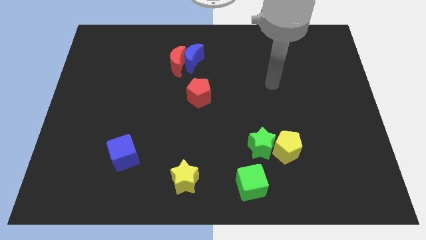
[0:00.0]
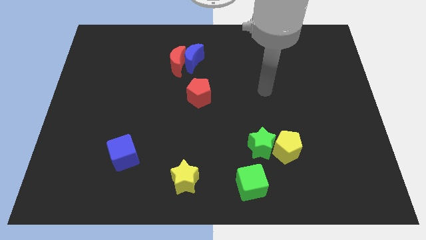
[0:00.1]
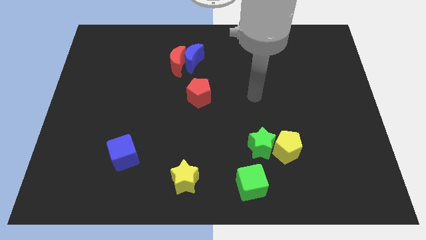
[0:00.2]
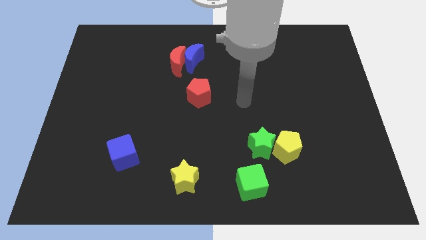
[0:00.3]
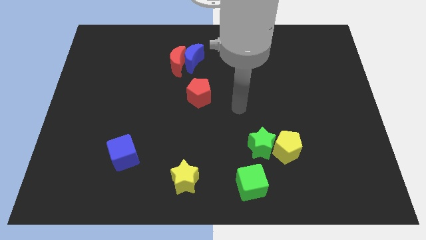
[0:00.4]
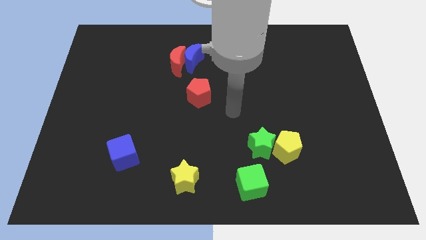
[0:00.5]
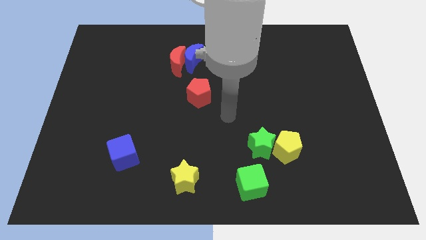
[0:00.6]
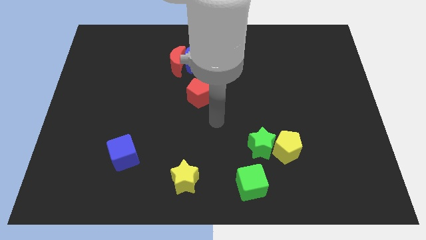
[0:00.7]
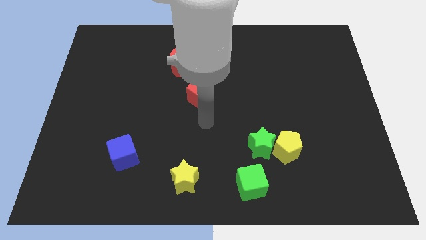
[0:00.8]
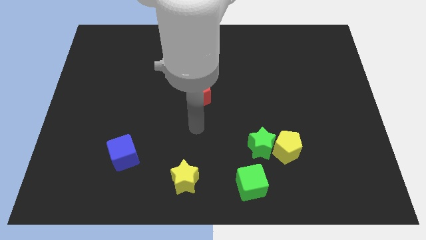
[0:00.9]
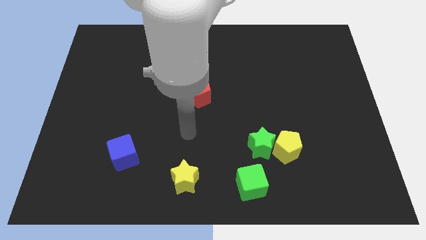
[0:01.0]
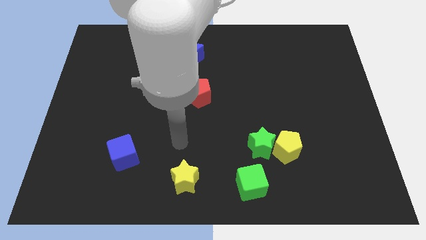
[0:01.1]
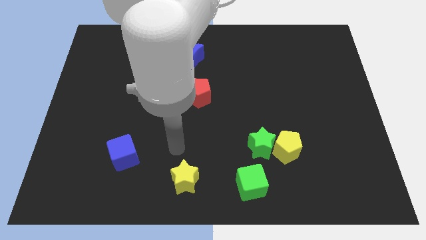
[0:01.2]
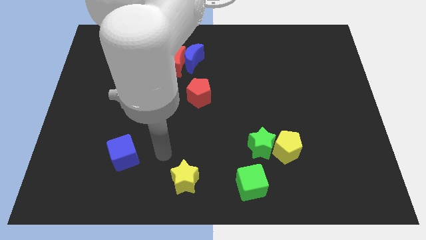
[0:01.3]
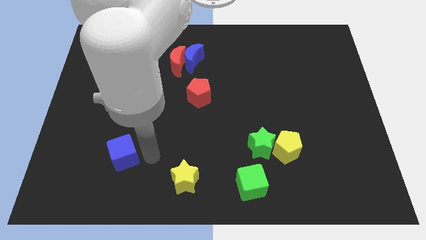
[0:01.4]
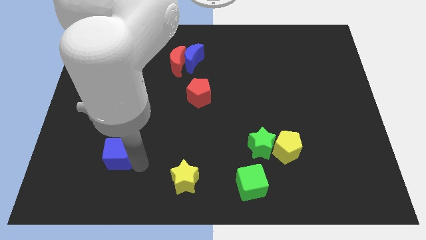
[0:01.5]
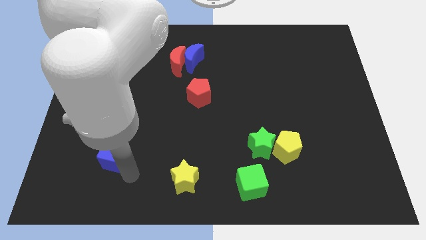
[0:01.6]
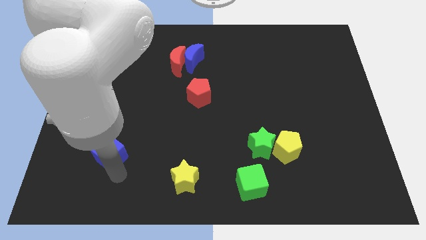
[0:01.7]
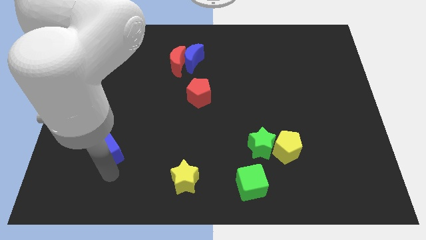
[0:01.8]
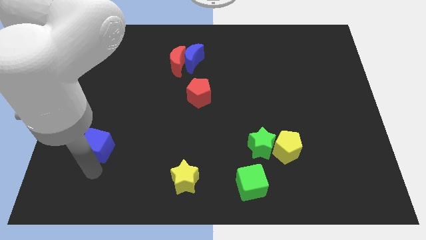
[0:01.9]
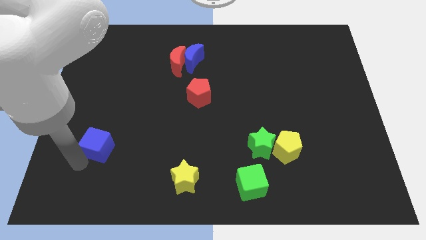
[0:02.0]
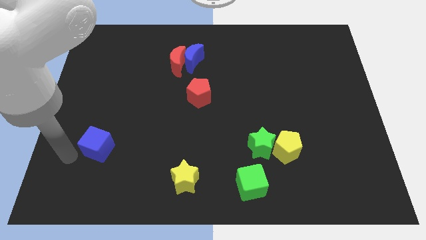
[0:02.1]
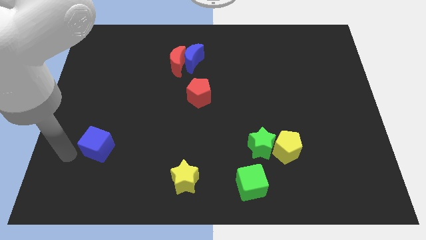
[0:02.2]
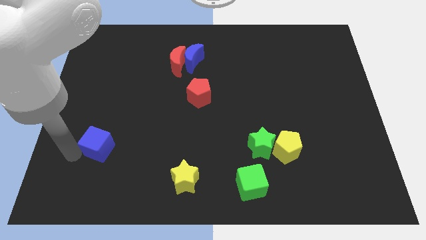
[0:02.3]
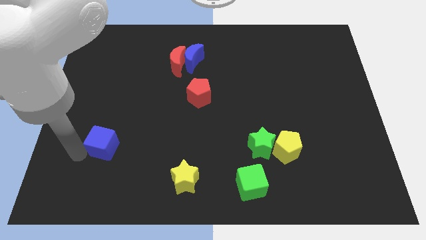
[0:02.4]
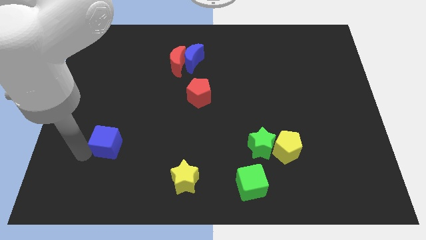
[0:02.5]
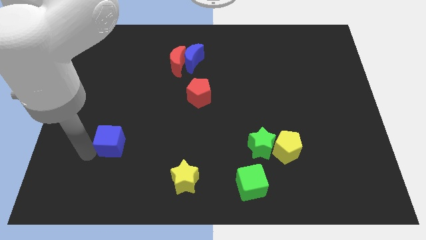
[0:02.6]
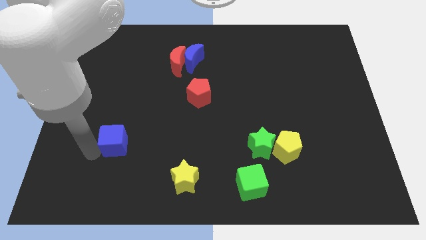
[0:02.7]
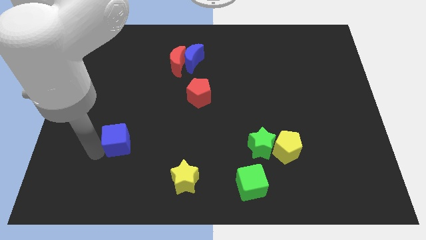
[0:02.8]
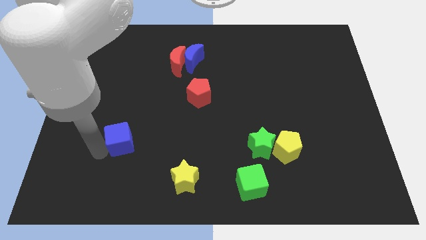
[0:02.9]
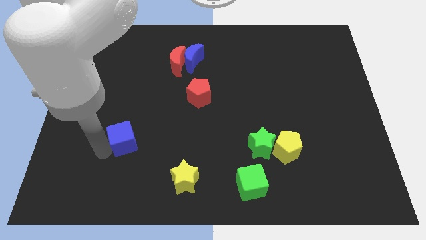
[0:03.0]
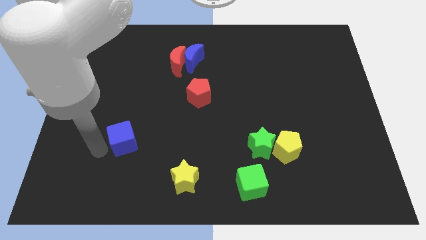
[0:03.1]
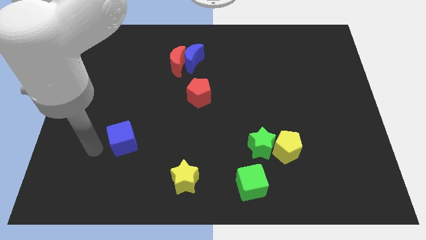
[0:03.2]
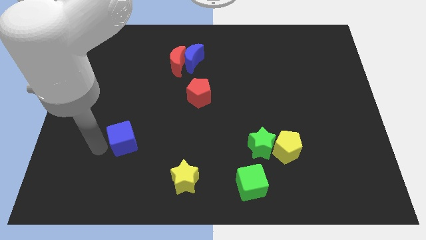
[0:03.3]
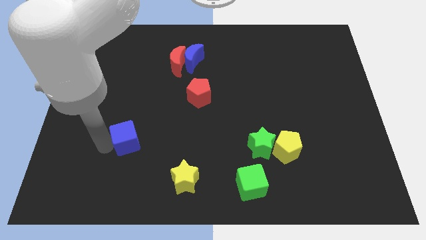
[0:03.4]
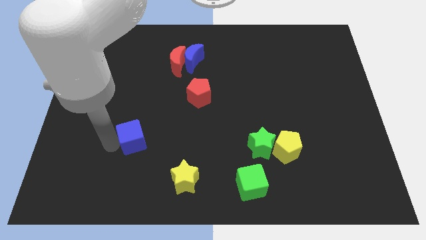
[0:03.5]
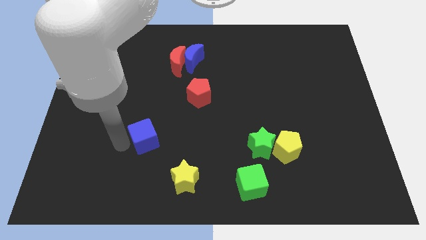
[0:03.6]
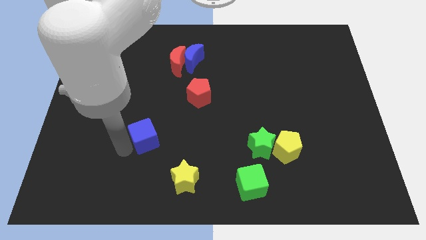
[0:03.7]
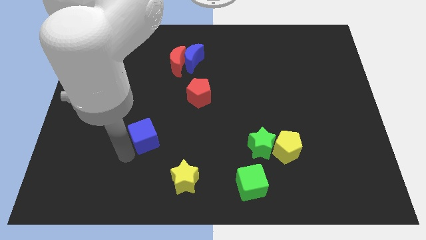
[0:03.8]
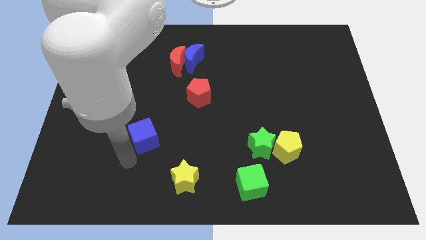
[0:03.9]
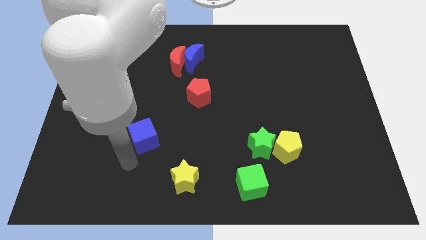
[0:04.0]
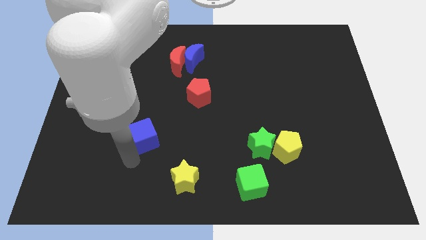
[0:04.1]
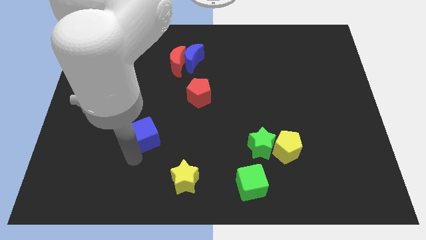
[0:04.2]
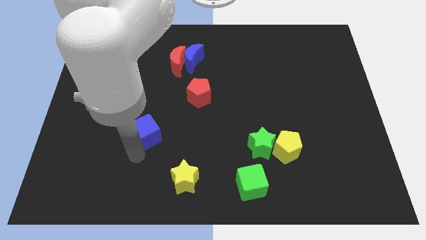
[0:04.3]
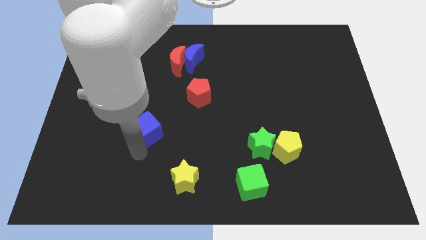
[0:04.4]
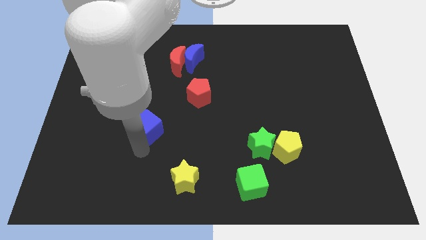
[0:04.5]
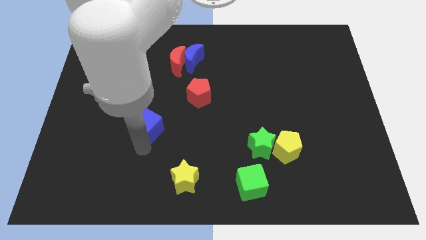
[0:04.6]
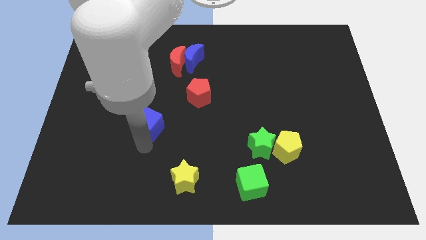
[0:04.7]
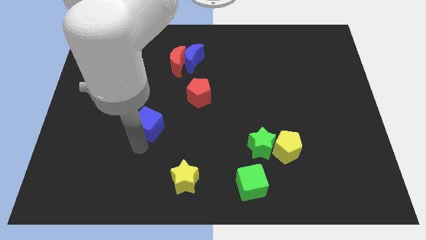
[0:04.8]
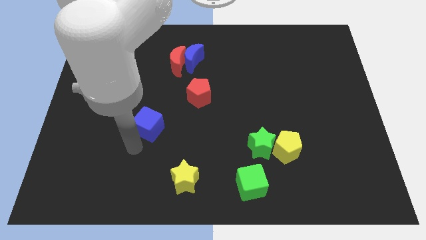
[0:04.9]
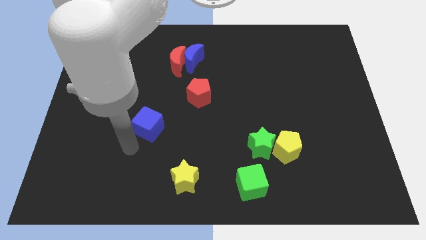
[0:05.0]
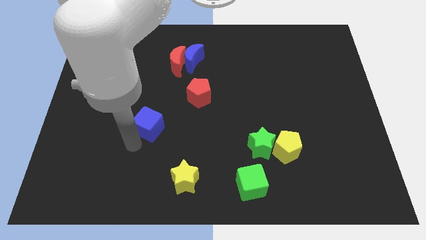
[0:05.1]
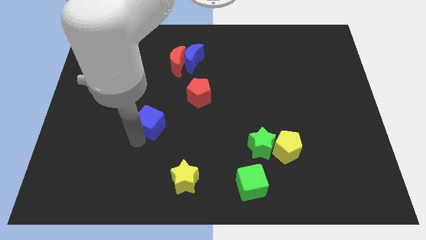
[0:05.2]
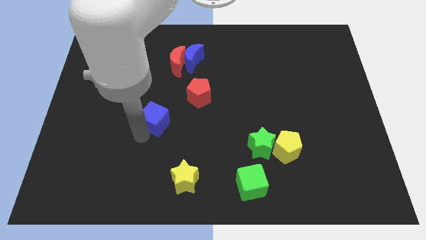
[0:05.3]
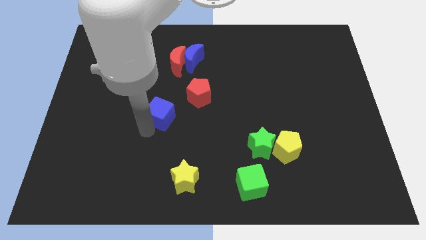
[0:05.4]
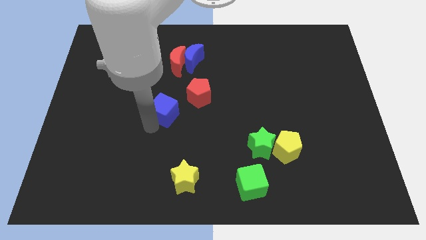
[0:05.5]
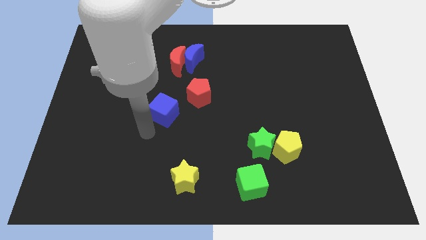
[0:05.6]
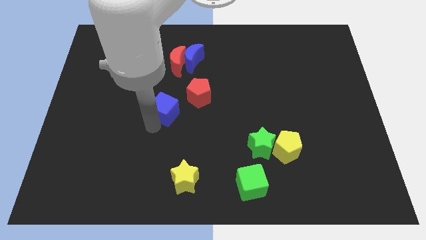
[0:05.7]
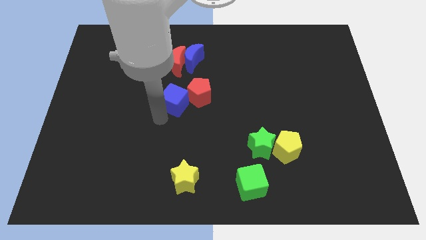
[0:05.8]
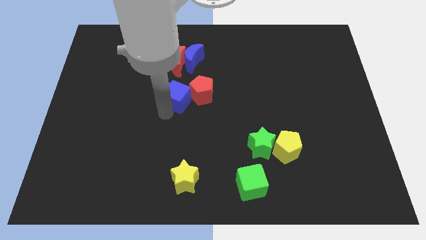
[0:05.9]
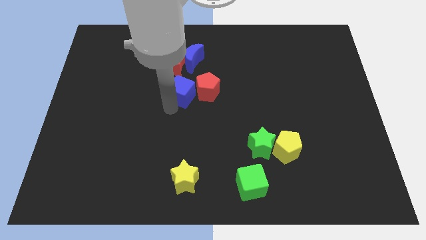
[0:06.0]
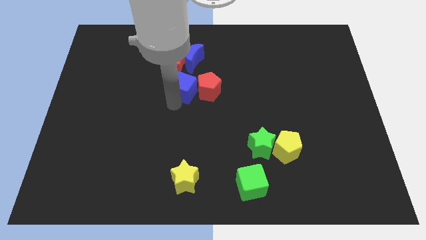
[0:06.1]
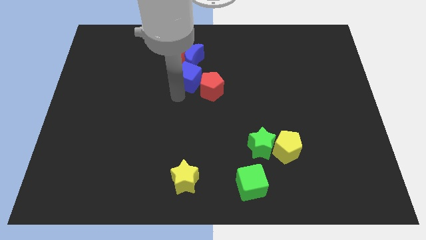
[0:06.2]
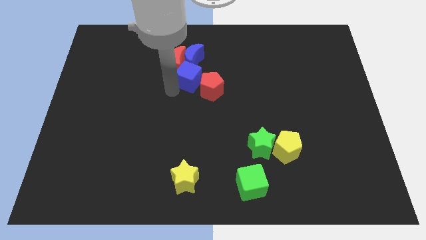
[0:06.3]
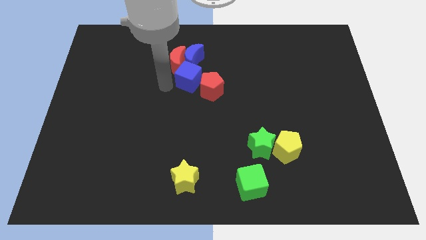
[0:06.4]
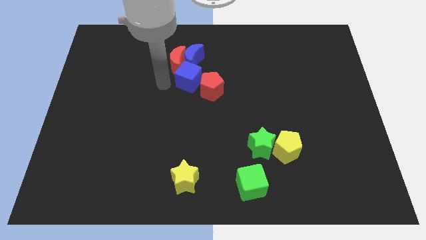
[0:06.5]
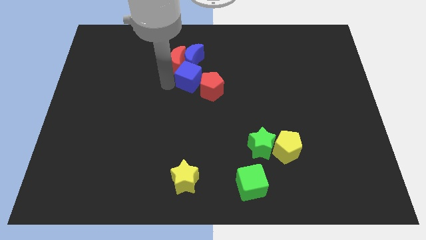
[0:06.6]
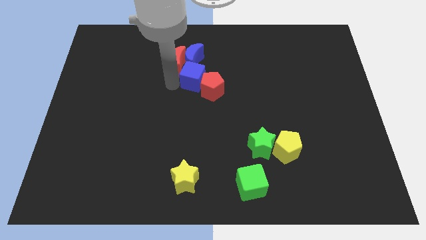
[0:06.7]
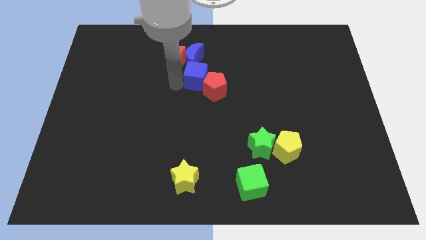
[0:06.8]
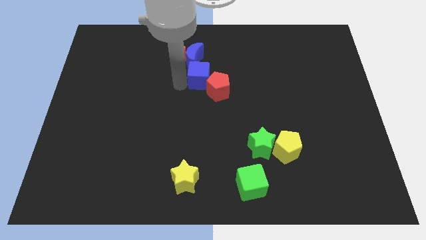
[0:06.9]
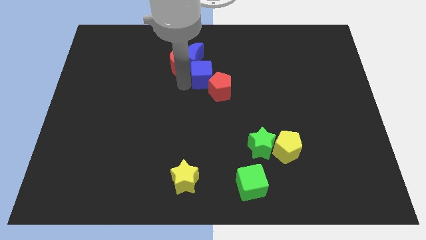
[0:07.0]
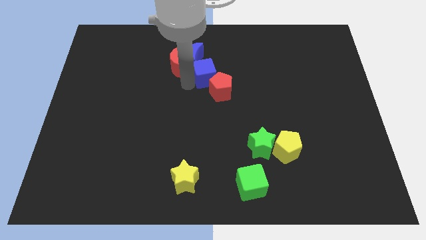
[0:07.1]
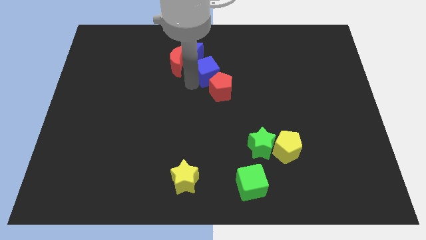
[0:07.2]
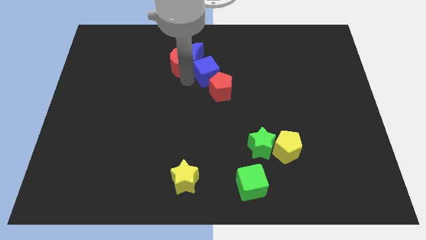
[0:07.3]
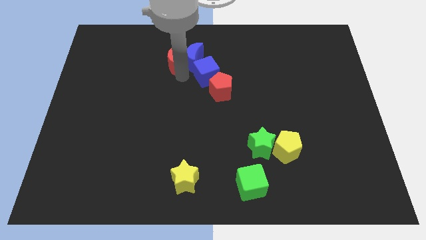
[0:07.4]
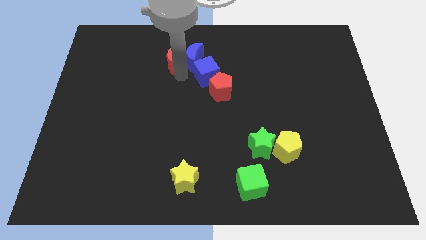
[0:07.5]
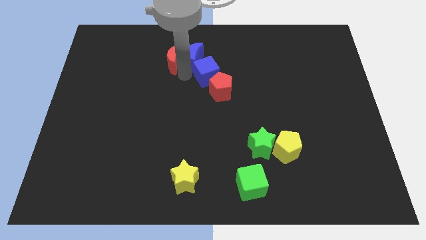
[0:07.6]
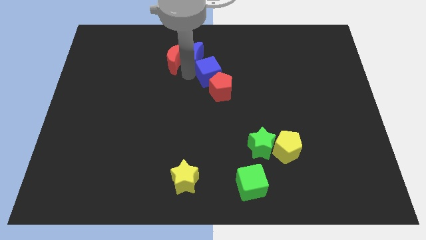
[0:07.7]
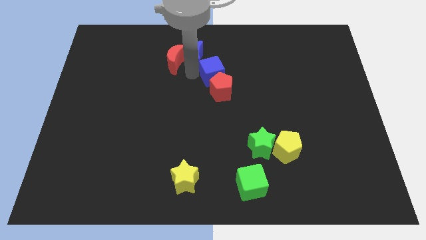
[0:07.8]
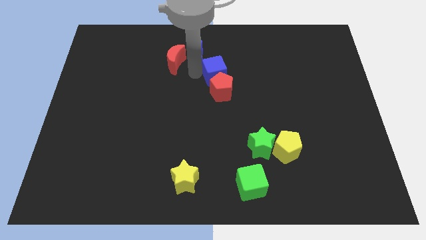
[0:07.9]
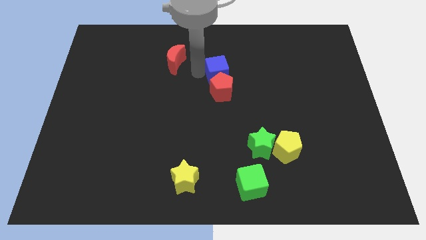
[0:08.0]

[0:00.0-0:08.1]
slide the blue cube to the top right side of the red pentagon
